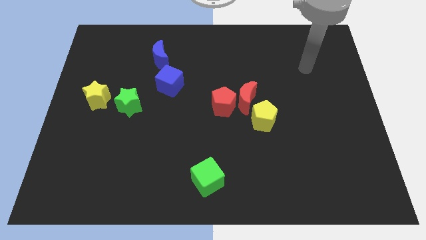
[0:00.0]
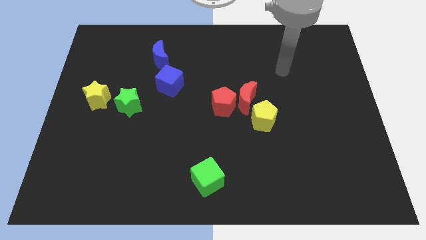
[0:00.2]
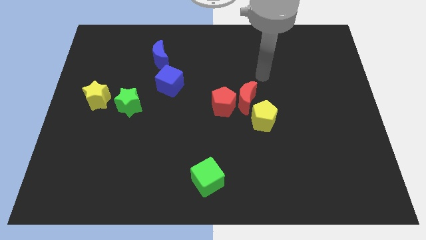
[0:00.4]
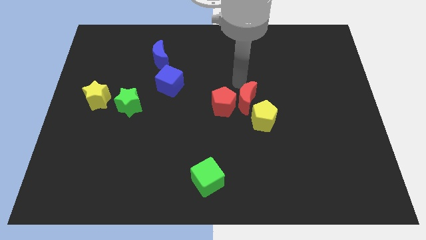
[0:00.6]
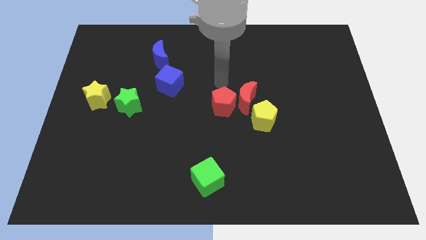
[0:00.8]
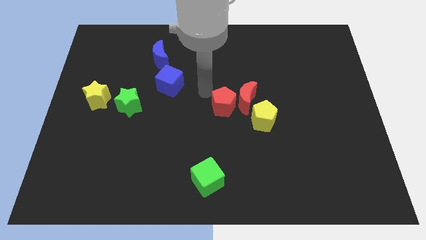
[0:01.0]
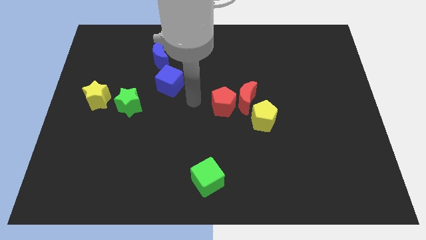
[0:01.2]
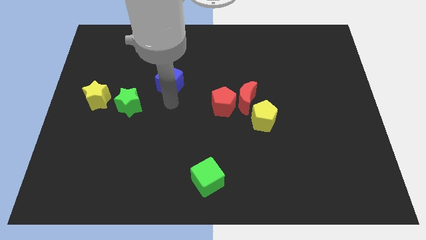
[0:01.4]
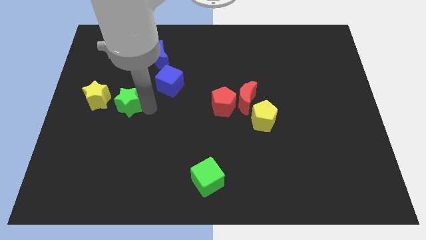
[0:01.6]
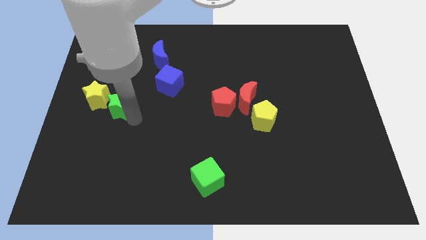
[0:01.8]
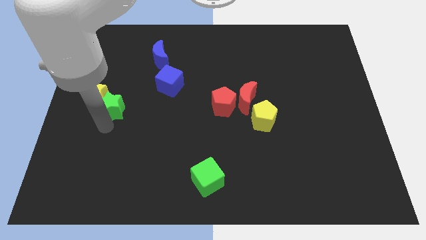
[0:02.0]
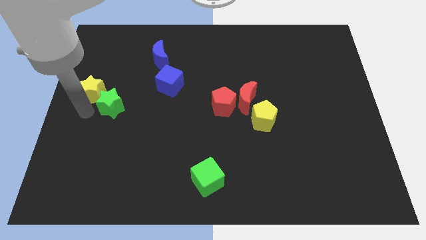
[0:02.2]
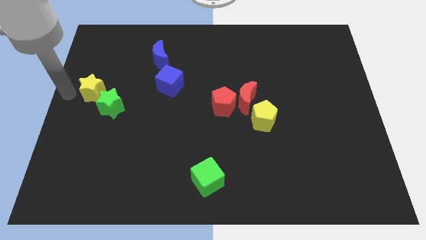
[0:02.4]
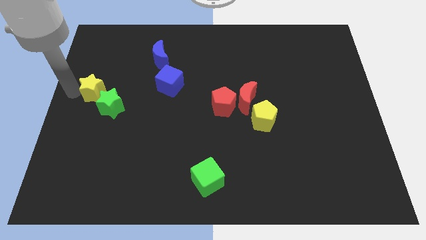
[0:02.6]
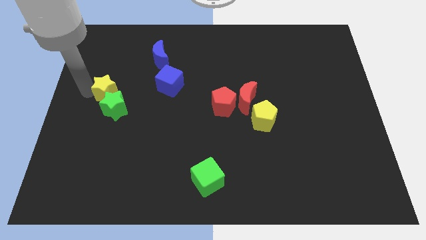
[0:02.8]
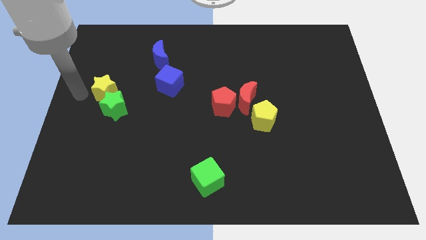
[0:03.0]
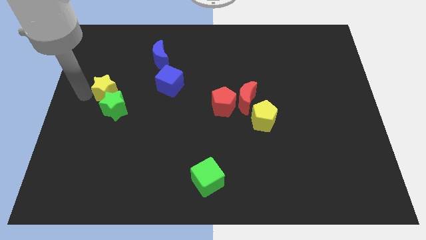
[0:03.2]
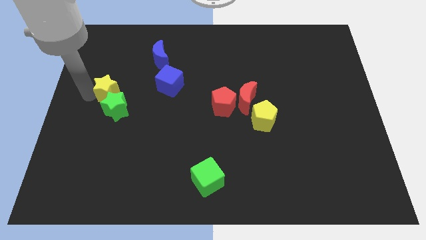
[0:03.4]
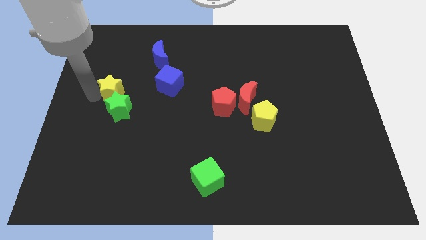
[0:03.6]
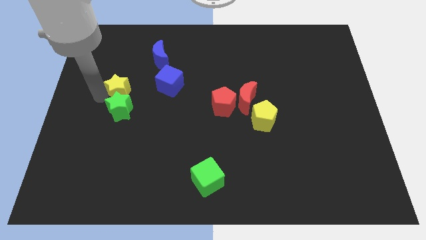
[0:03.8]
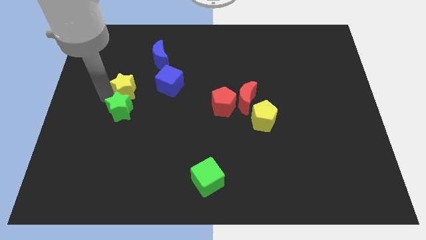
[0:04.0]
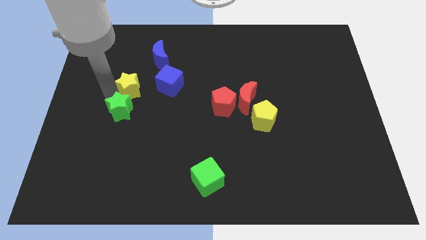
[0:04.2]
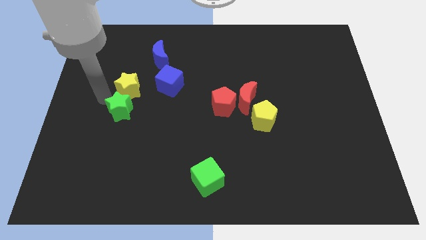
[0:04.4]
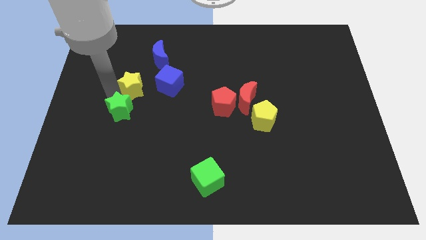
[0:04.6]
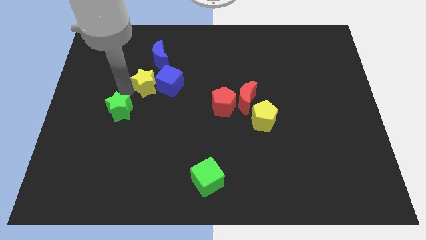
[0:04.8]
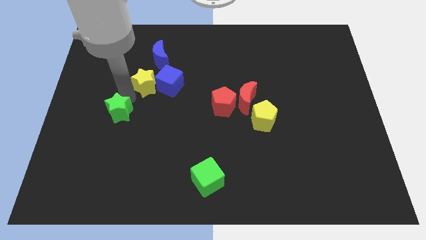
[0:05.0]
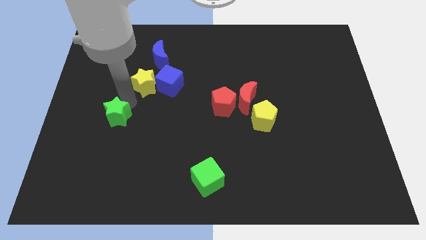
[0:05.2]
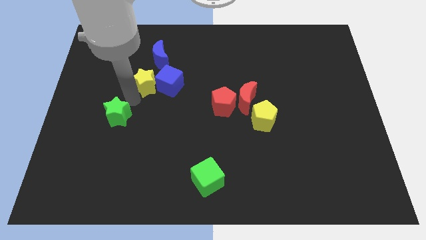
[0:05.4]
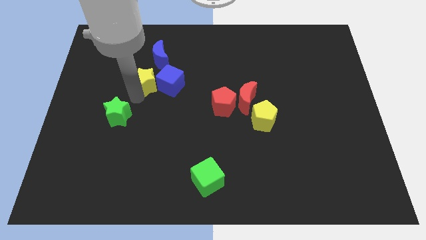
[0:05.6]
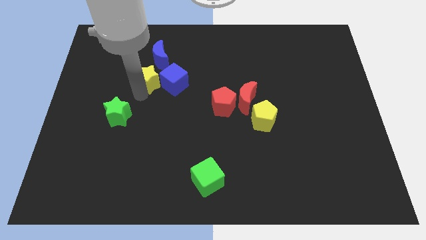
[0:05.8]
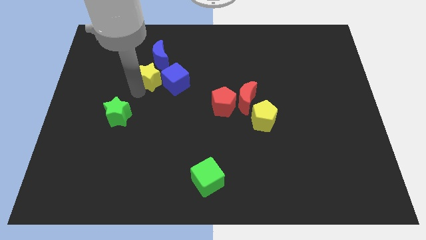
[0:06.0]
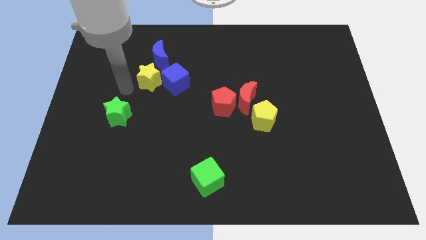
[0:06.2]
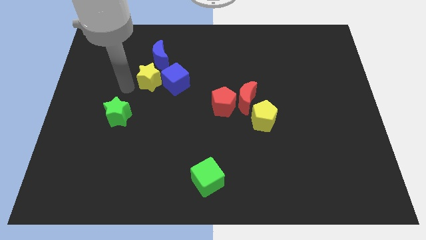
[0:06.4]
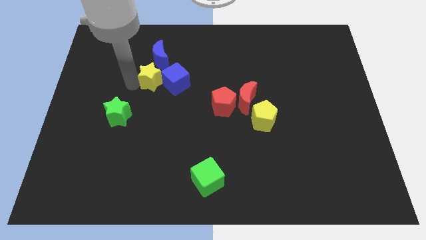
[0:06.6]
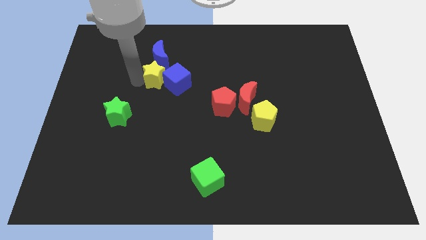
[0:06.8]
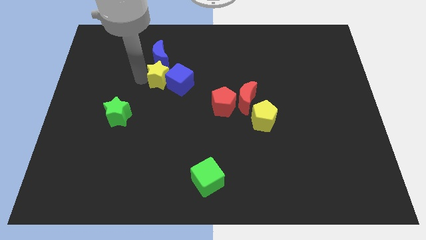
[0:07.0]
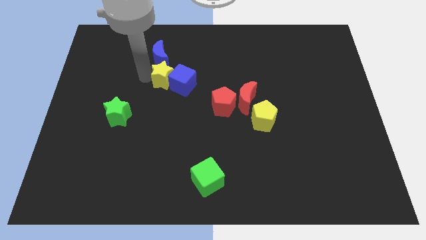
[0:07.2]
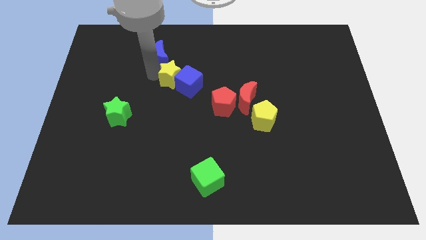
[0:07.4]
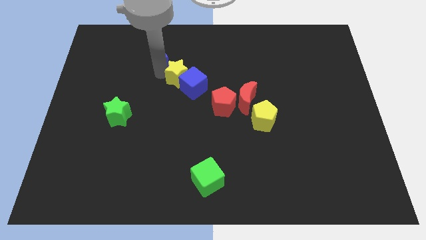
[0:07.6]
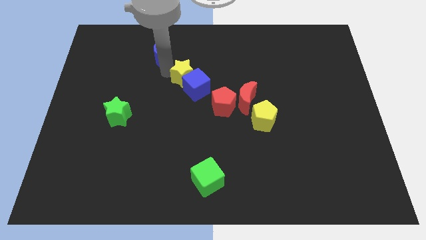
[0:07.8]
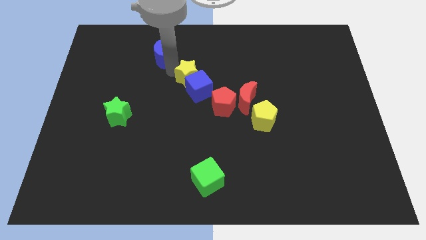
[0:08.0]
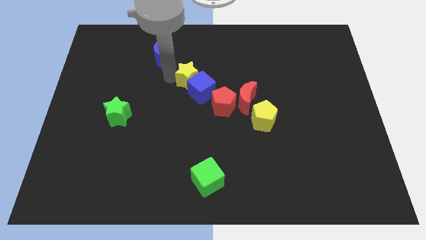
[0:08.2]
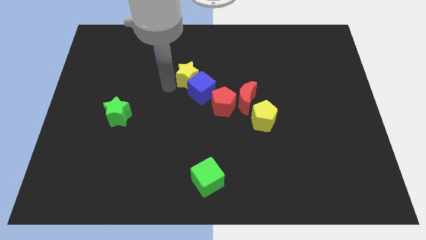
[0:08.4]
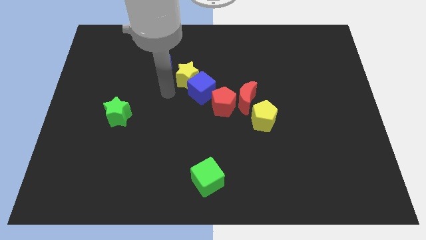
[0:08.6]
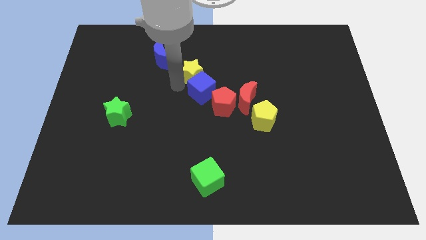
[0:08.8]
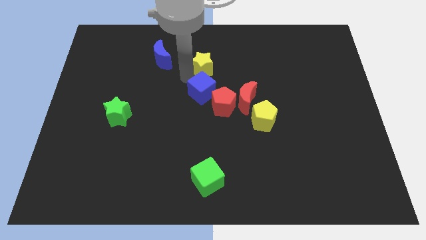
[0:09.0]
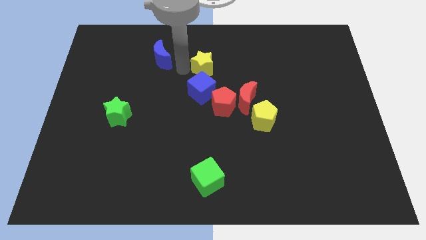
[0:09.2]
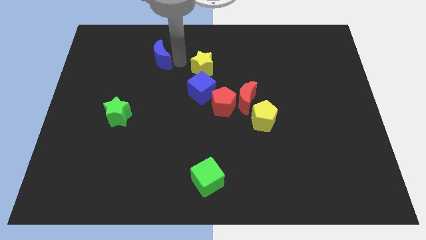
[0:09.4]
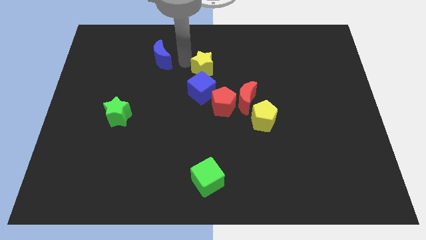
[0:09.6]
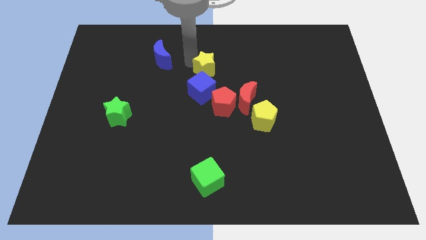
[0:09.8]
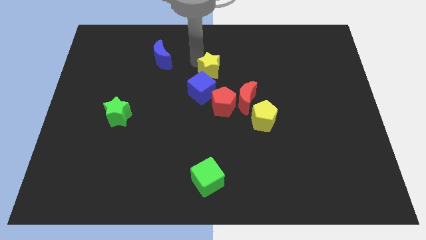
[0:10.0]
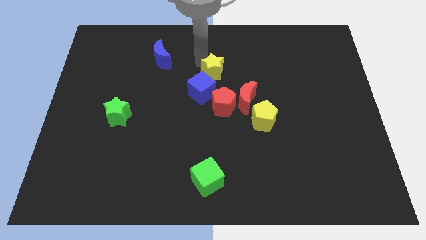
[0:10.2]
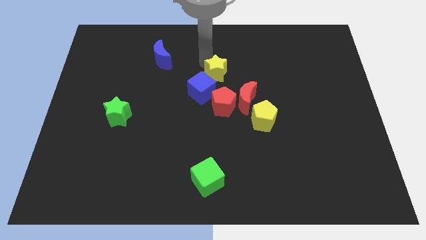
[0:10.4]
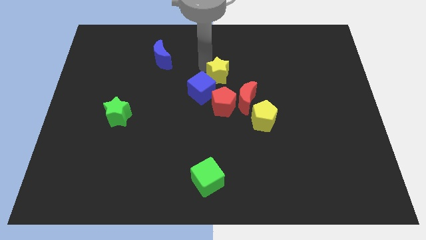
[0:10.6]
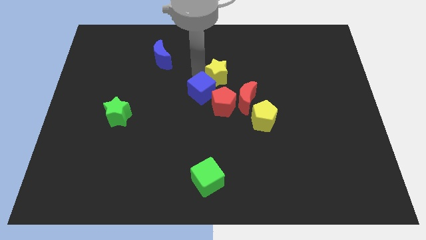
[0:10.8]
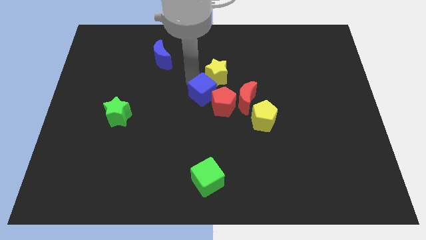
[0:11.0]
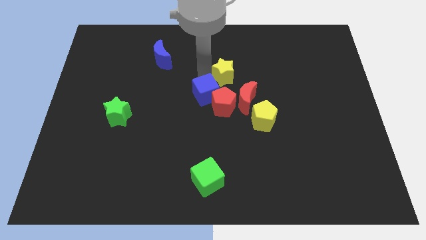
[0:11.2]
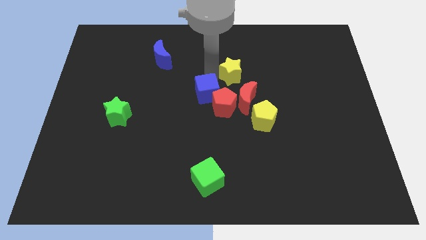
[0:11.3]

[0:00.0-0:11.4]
slide the yellow star above the red moon

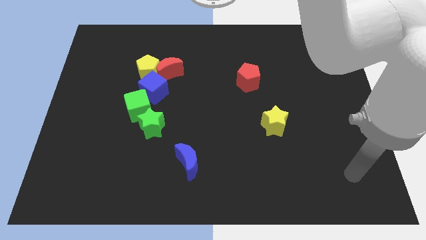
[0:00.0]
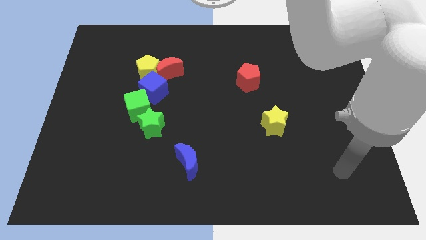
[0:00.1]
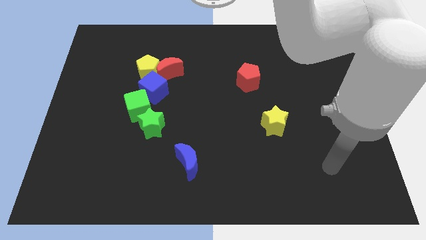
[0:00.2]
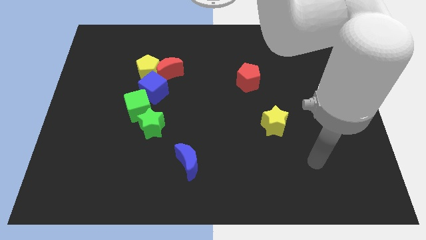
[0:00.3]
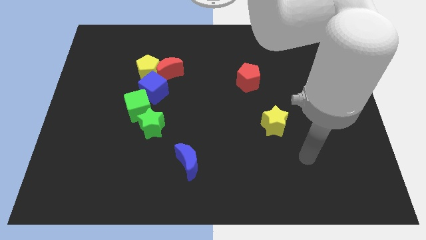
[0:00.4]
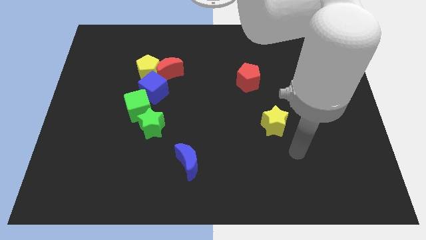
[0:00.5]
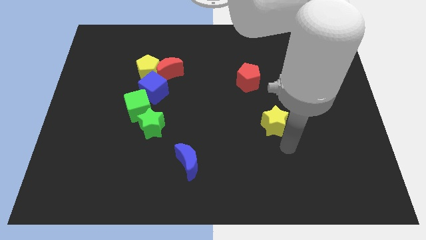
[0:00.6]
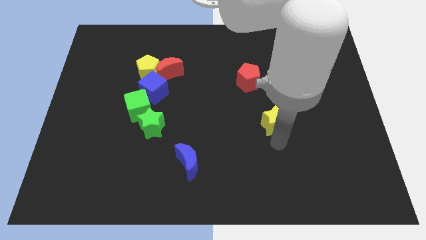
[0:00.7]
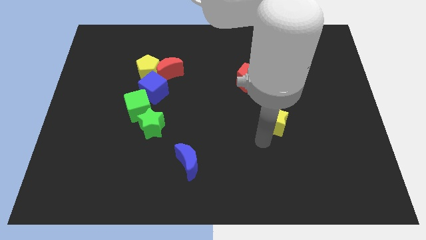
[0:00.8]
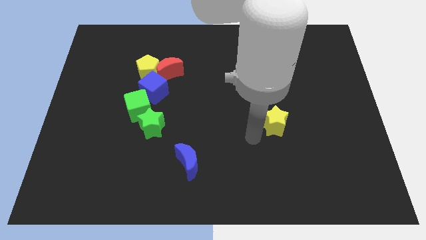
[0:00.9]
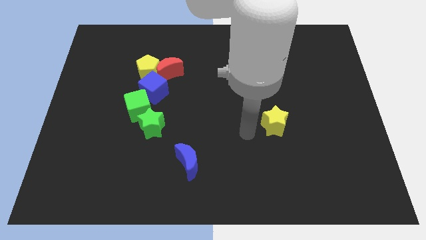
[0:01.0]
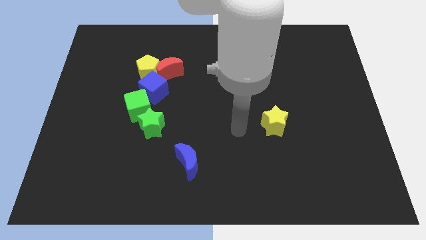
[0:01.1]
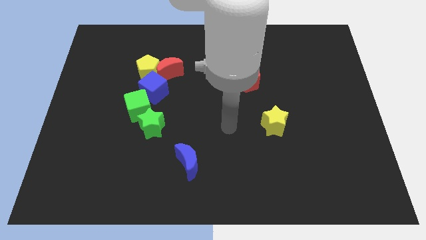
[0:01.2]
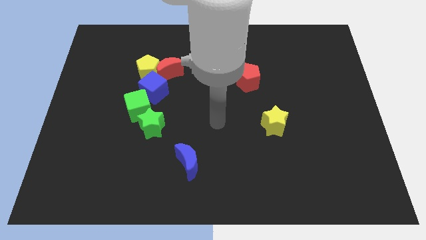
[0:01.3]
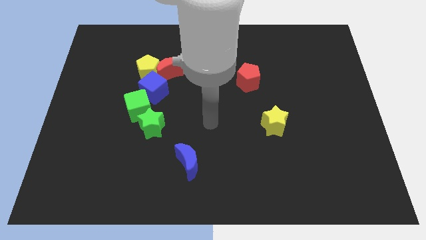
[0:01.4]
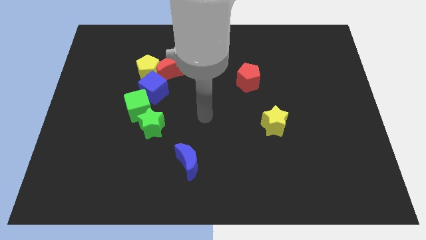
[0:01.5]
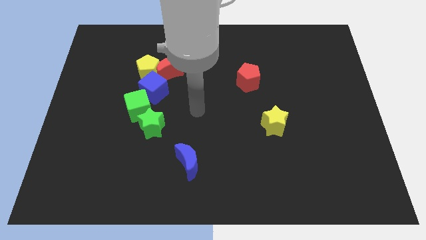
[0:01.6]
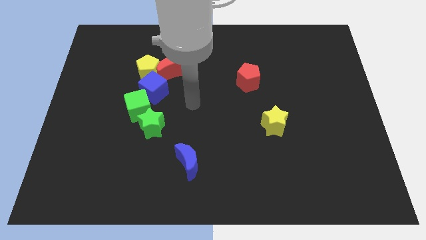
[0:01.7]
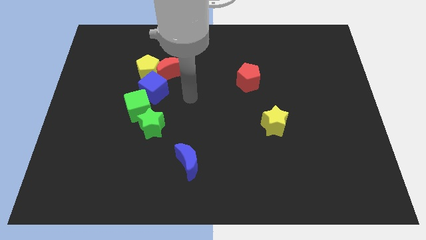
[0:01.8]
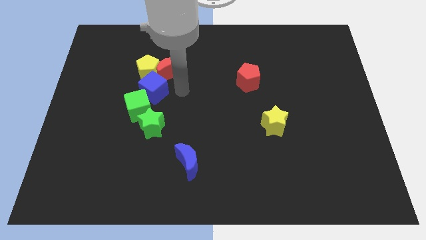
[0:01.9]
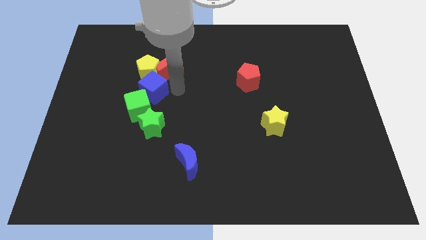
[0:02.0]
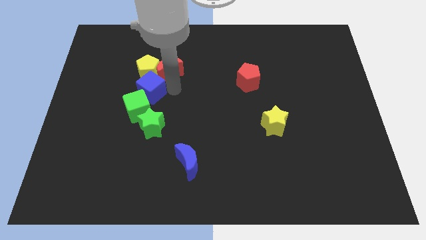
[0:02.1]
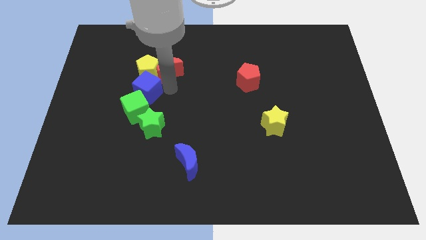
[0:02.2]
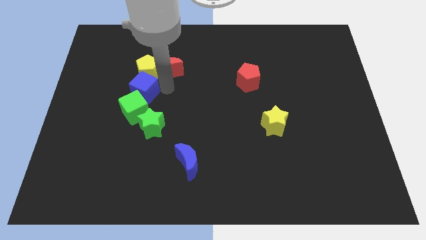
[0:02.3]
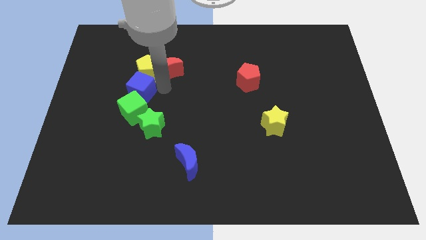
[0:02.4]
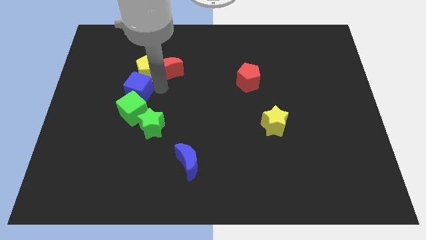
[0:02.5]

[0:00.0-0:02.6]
put the blue cube to the top left of the green cube
